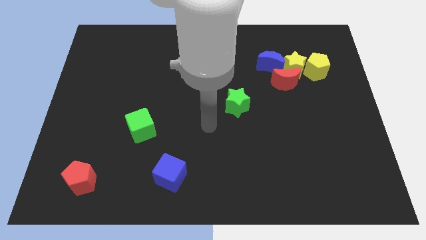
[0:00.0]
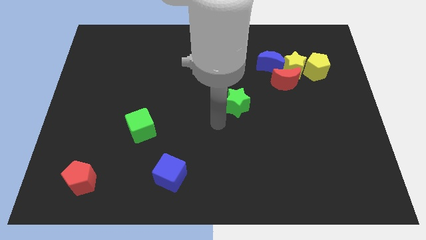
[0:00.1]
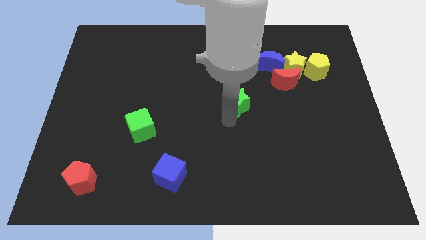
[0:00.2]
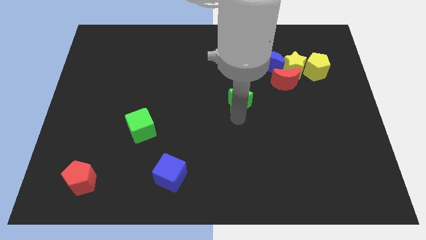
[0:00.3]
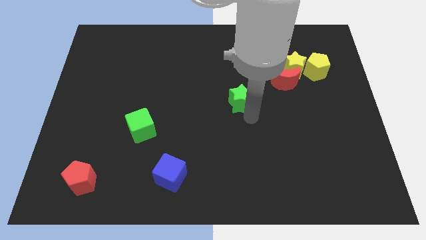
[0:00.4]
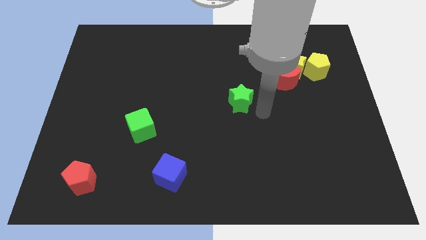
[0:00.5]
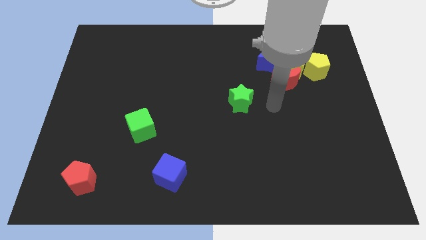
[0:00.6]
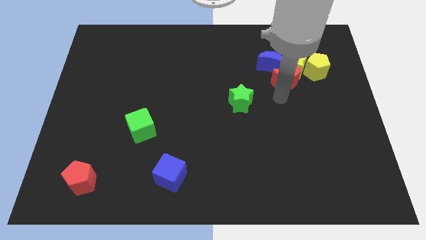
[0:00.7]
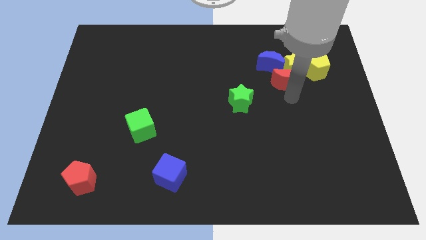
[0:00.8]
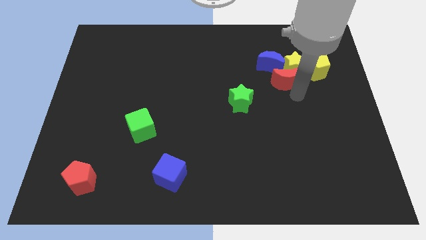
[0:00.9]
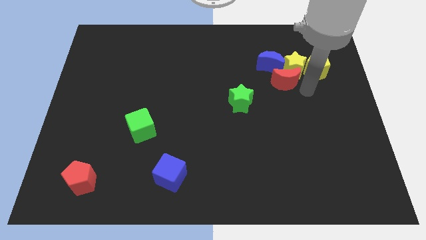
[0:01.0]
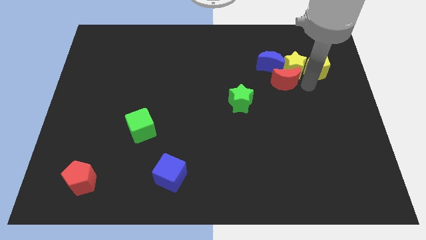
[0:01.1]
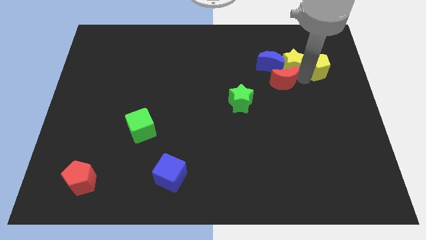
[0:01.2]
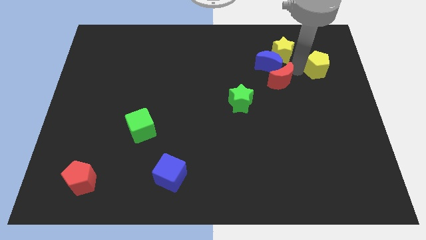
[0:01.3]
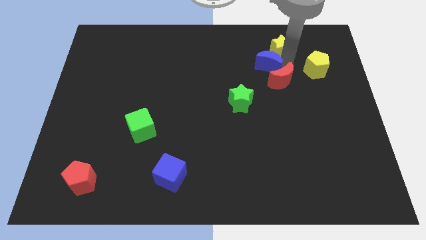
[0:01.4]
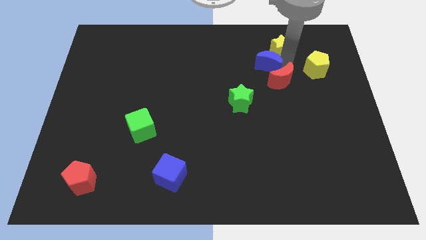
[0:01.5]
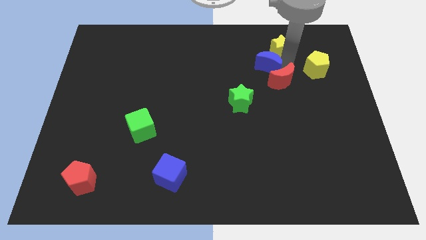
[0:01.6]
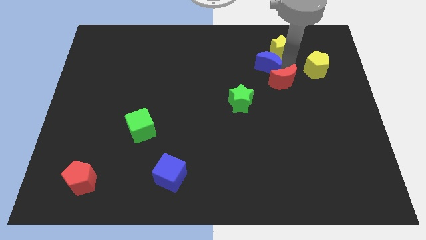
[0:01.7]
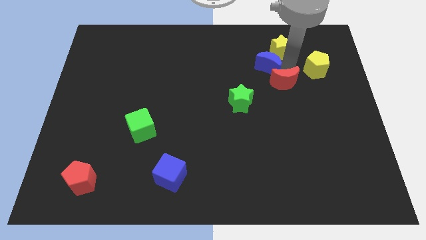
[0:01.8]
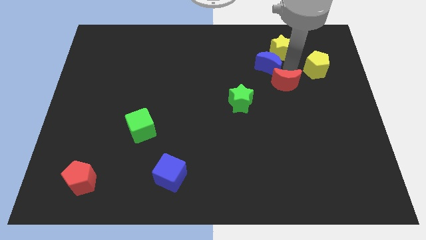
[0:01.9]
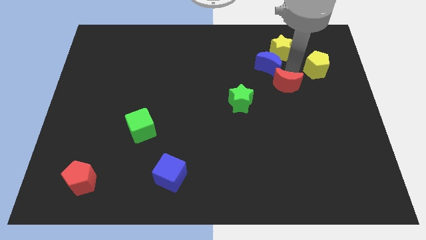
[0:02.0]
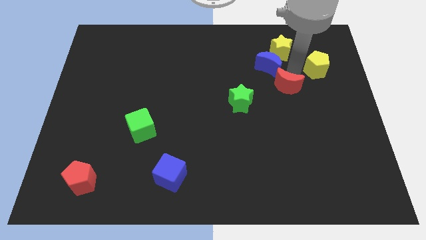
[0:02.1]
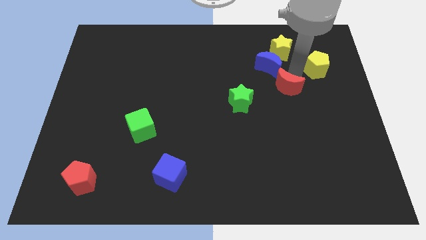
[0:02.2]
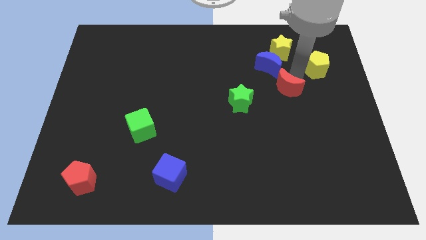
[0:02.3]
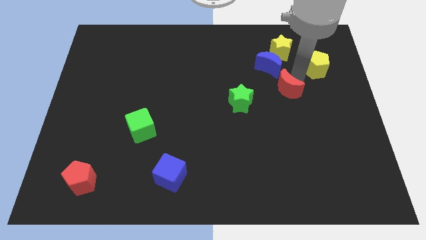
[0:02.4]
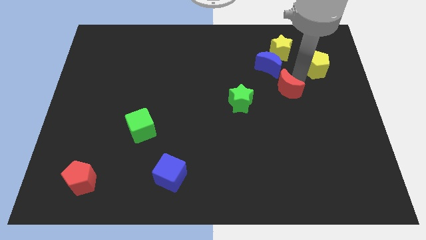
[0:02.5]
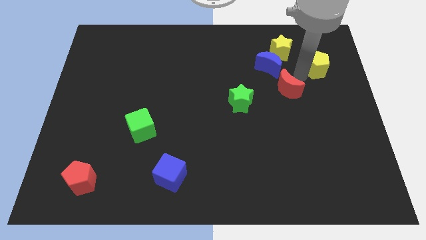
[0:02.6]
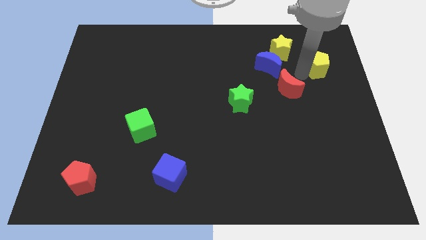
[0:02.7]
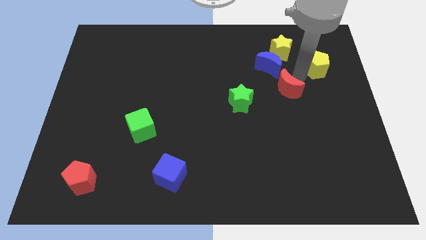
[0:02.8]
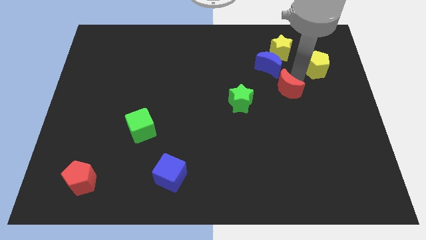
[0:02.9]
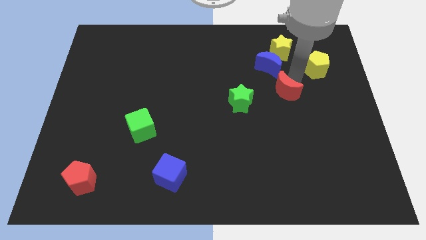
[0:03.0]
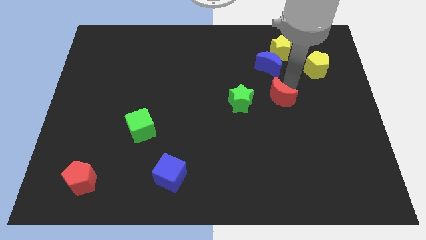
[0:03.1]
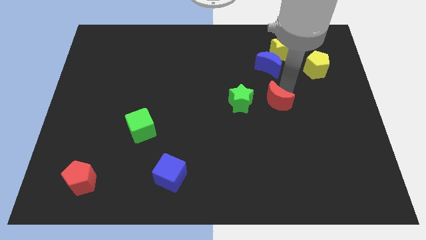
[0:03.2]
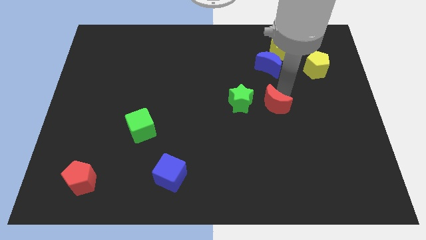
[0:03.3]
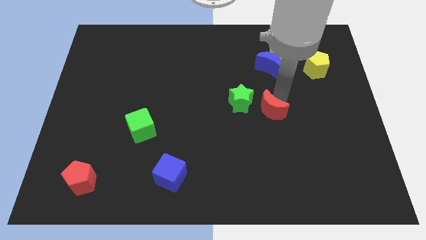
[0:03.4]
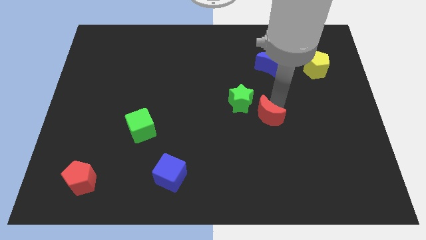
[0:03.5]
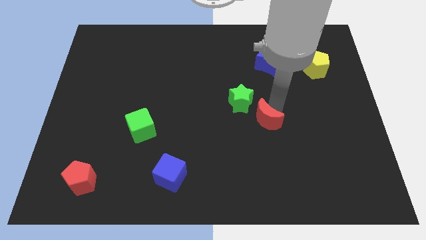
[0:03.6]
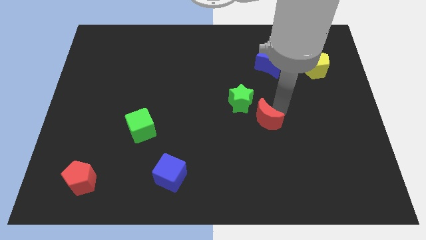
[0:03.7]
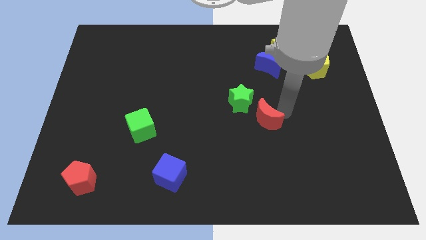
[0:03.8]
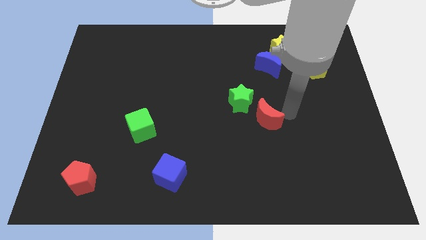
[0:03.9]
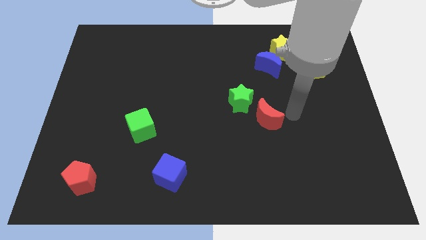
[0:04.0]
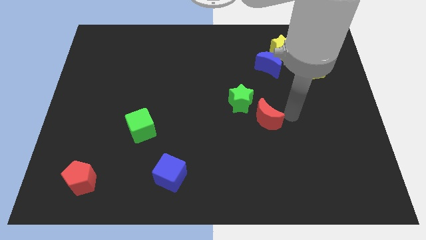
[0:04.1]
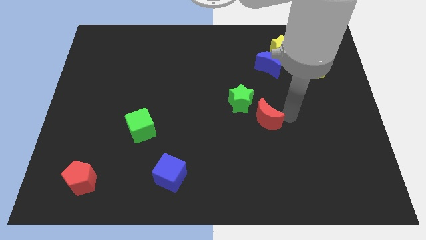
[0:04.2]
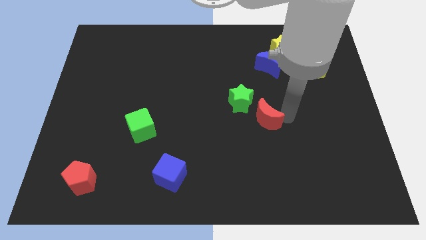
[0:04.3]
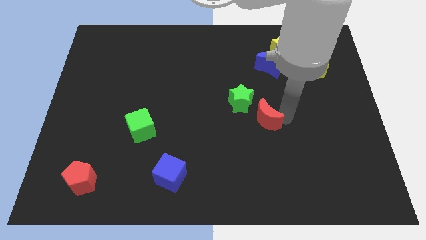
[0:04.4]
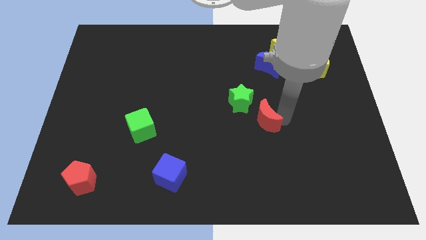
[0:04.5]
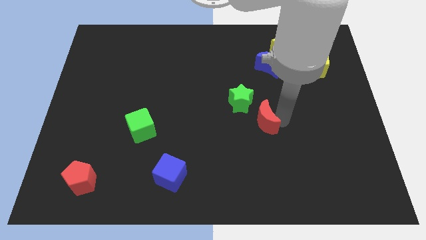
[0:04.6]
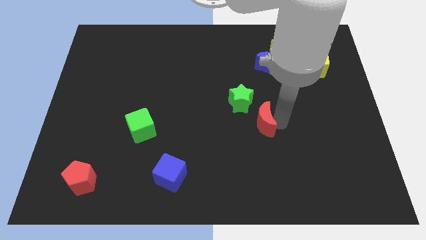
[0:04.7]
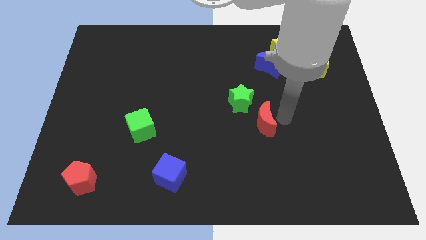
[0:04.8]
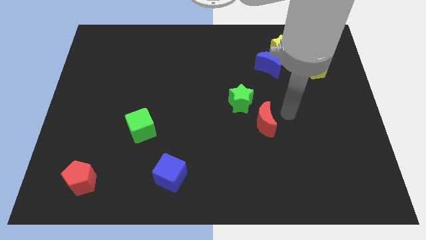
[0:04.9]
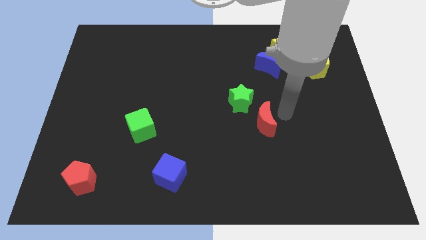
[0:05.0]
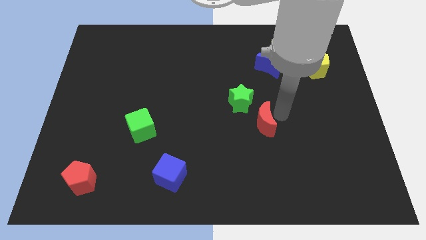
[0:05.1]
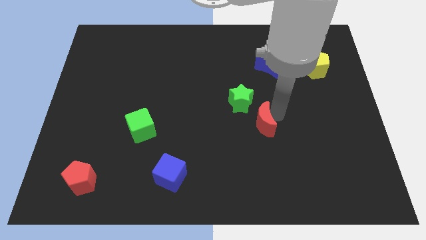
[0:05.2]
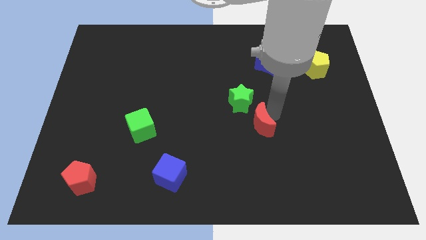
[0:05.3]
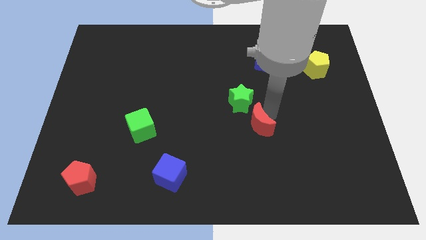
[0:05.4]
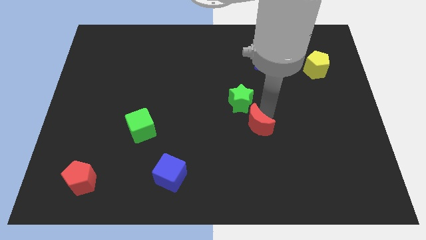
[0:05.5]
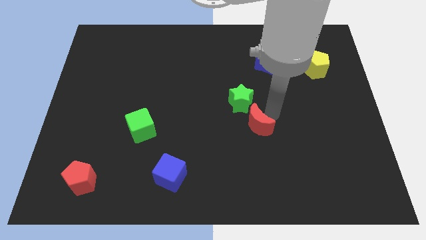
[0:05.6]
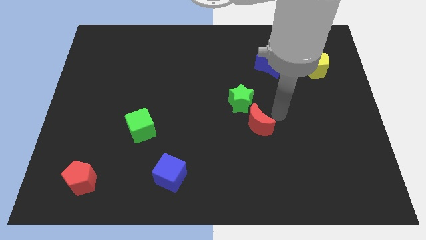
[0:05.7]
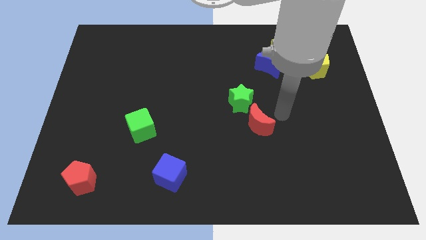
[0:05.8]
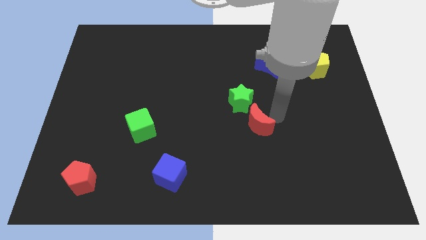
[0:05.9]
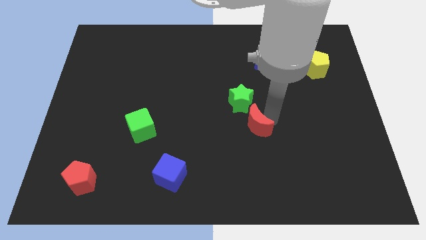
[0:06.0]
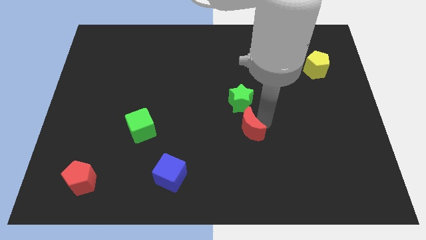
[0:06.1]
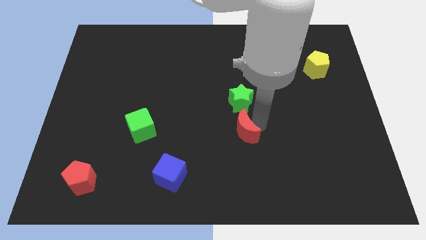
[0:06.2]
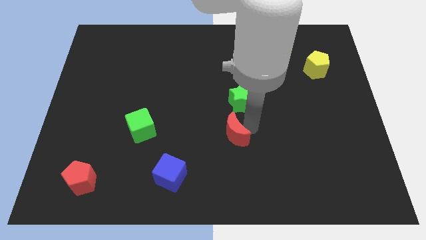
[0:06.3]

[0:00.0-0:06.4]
push the red moon down and then left

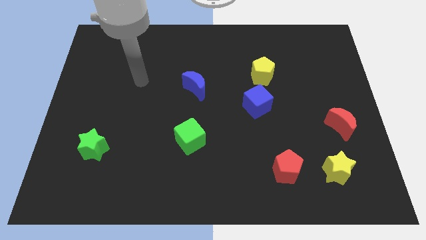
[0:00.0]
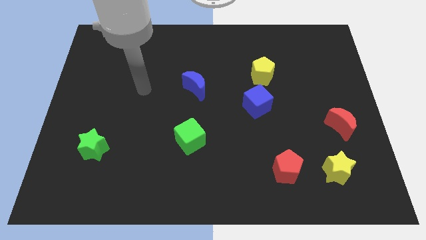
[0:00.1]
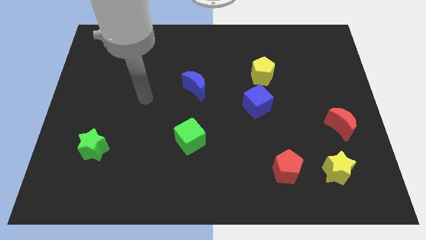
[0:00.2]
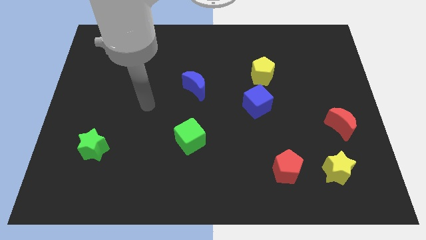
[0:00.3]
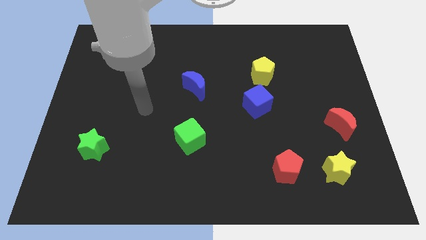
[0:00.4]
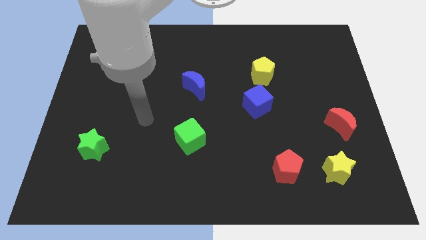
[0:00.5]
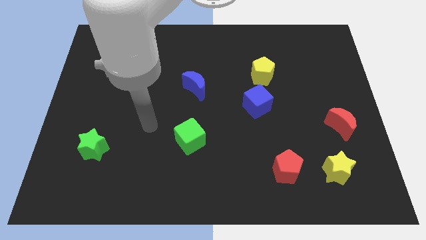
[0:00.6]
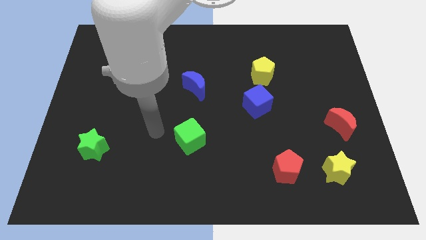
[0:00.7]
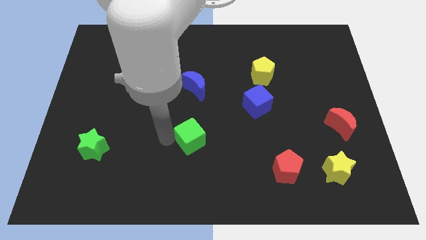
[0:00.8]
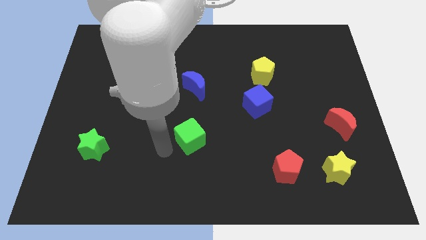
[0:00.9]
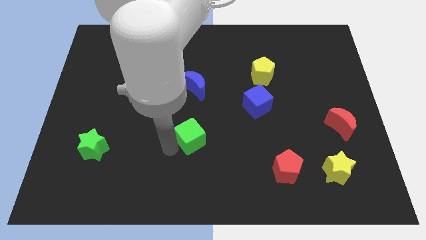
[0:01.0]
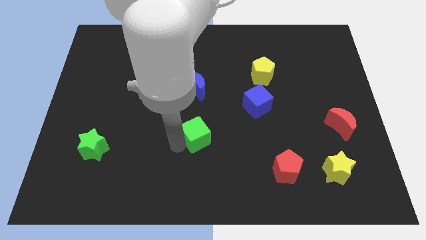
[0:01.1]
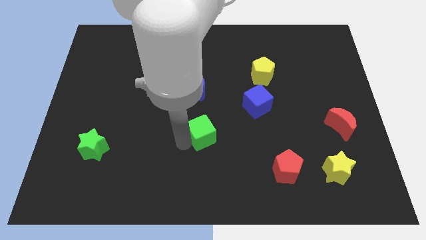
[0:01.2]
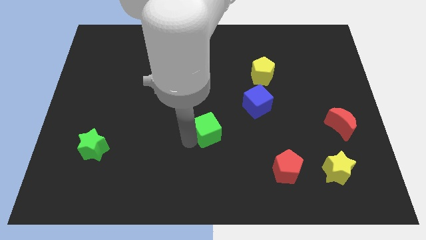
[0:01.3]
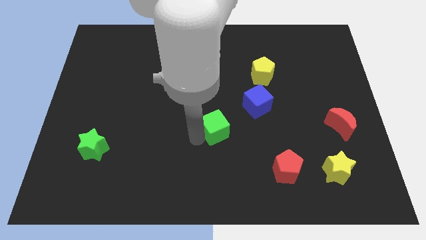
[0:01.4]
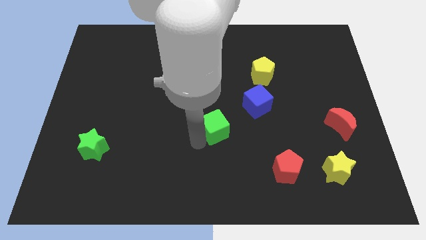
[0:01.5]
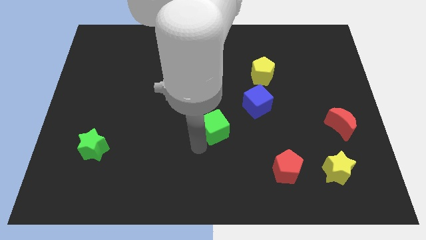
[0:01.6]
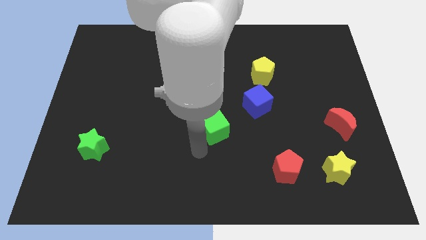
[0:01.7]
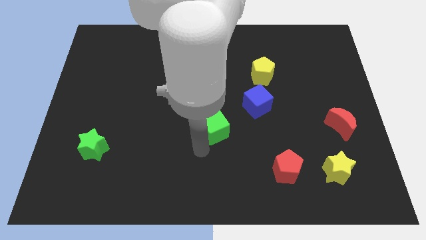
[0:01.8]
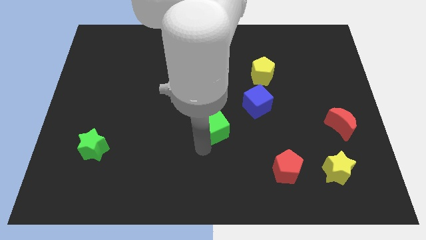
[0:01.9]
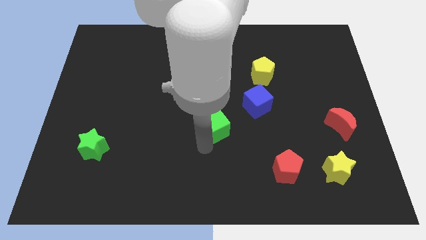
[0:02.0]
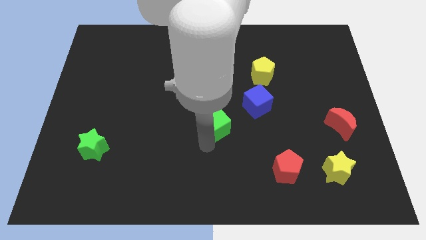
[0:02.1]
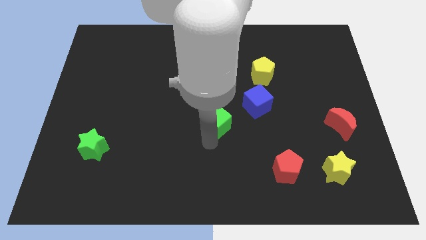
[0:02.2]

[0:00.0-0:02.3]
slightly move the green cube diagonally upwards and to the right
